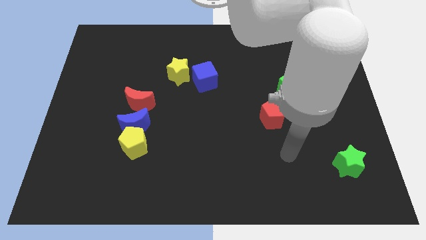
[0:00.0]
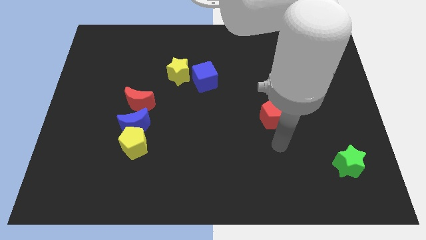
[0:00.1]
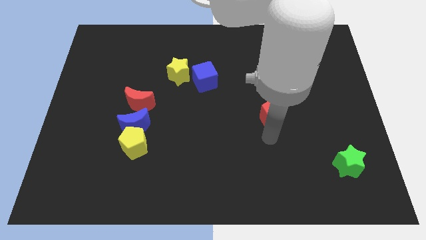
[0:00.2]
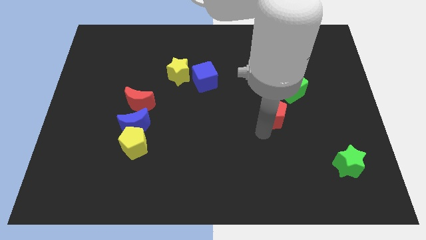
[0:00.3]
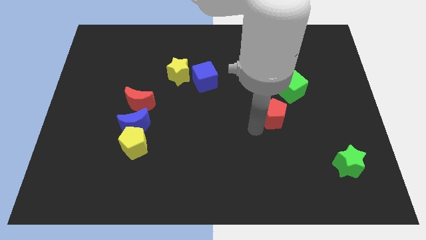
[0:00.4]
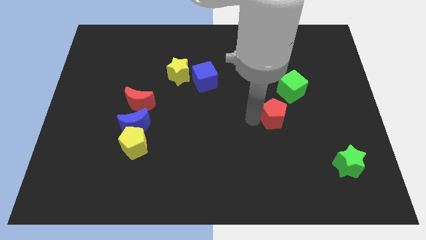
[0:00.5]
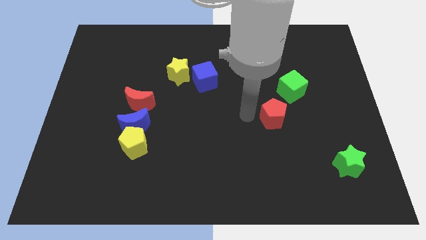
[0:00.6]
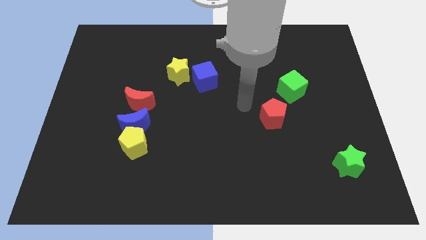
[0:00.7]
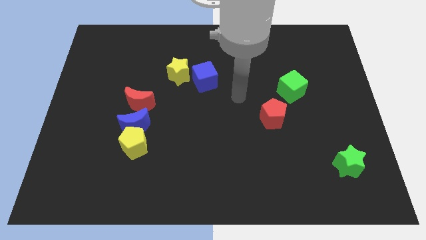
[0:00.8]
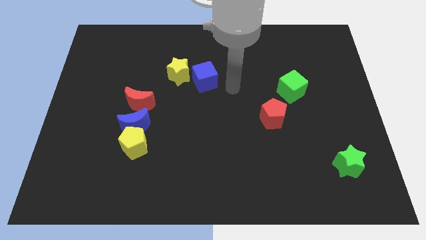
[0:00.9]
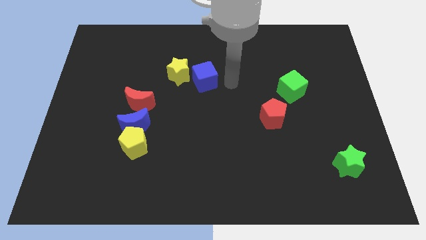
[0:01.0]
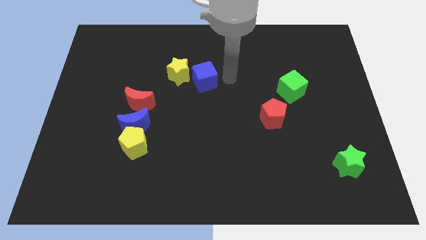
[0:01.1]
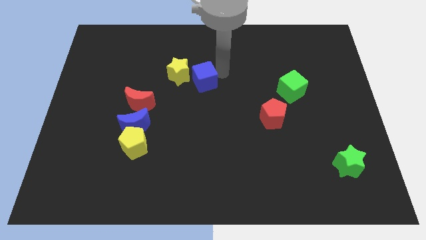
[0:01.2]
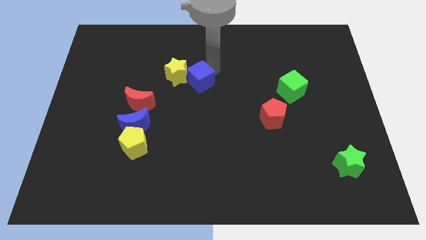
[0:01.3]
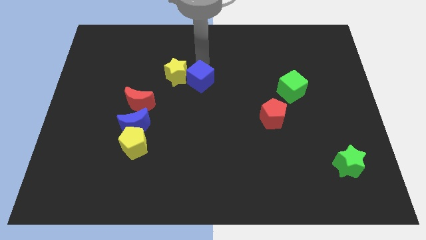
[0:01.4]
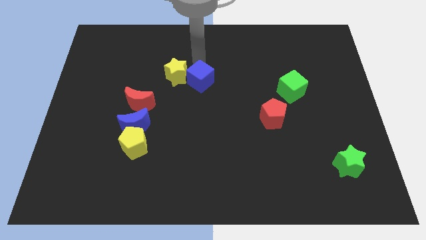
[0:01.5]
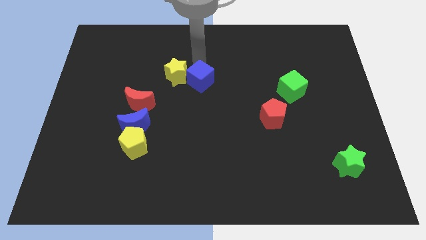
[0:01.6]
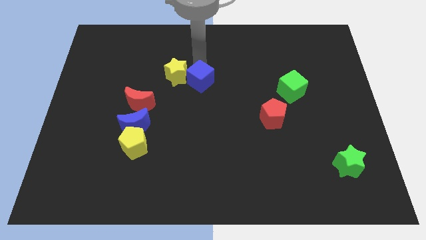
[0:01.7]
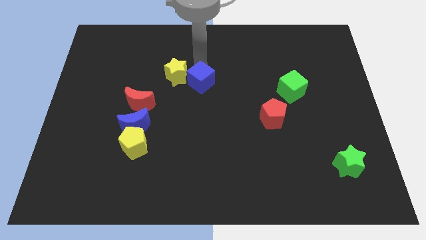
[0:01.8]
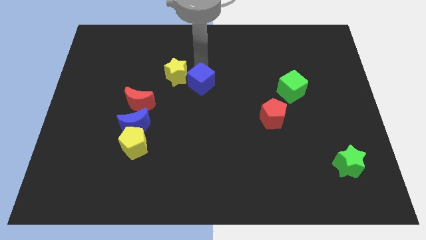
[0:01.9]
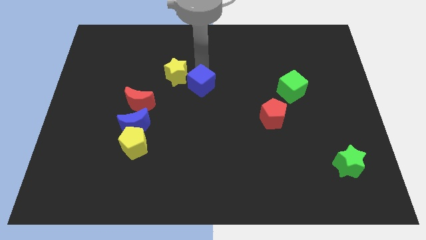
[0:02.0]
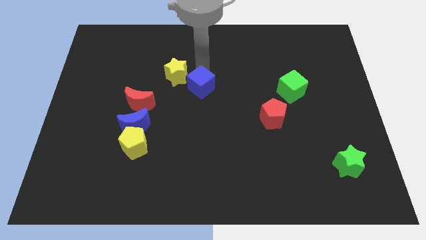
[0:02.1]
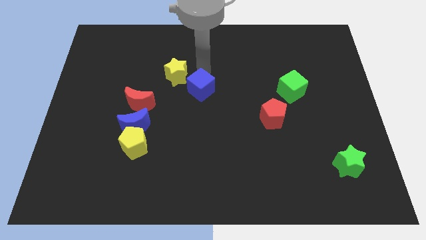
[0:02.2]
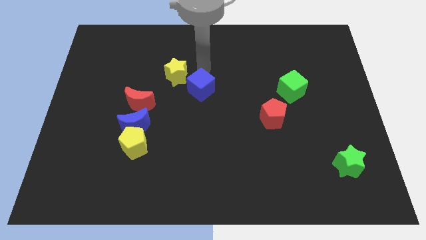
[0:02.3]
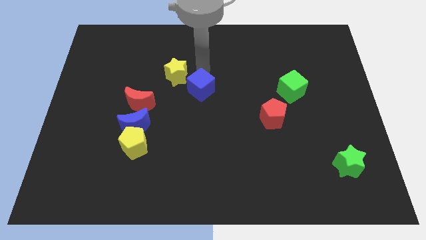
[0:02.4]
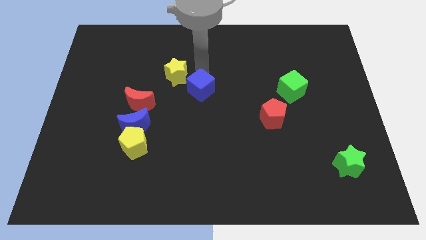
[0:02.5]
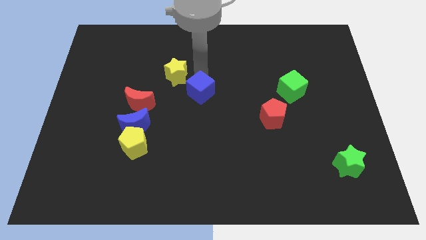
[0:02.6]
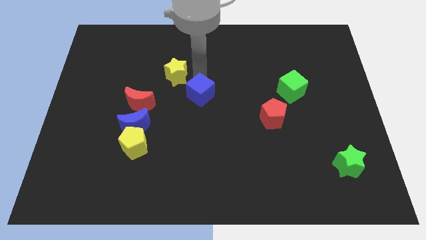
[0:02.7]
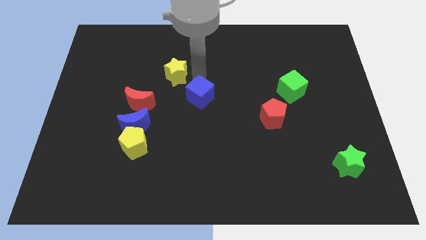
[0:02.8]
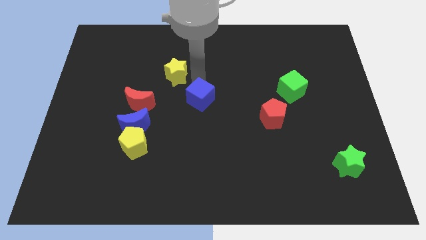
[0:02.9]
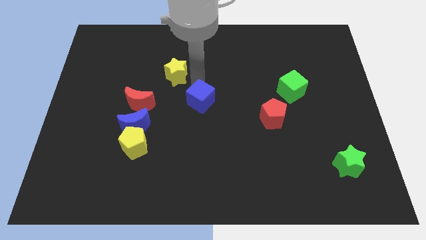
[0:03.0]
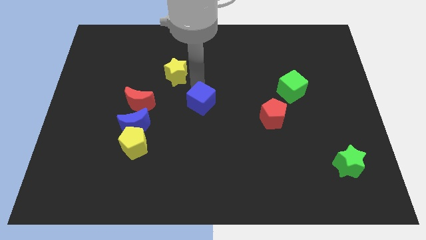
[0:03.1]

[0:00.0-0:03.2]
push the blue cube downwards a bit

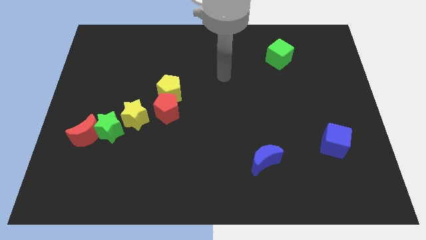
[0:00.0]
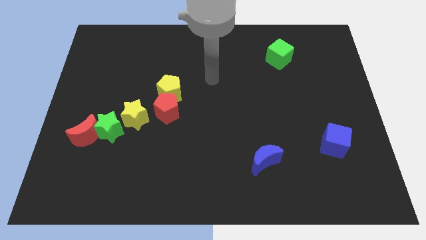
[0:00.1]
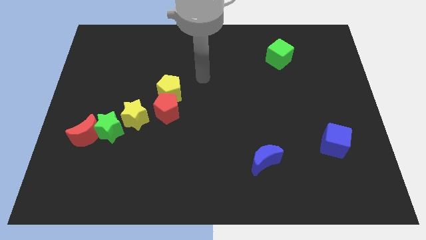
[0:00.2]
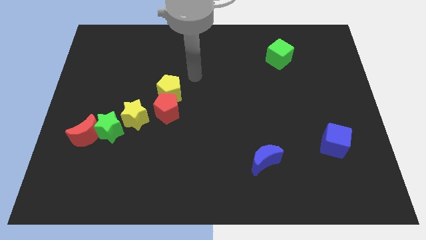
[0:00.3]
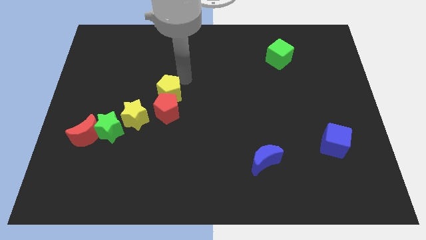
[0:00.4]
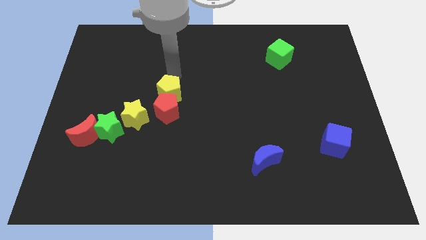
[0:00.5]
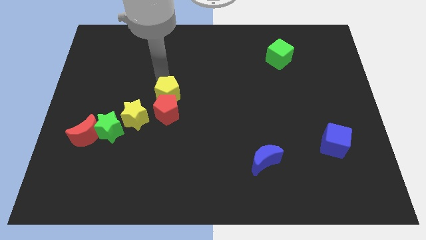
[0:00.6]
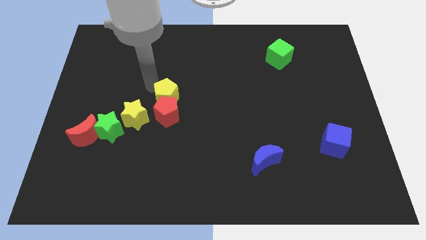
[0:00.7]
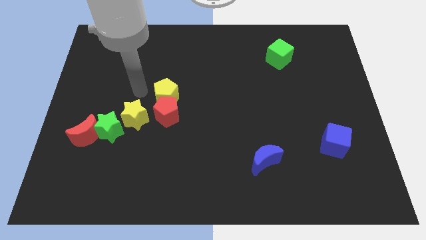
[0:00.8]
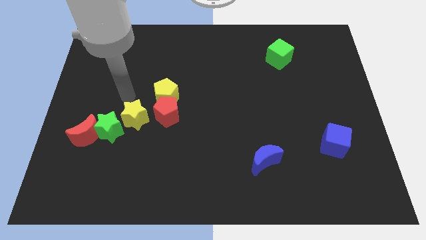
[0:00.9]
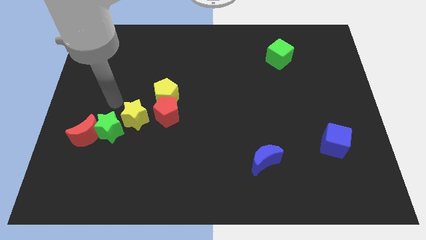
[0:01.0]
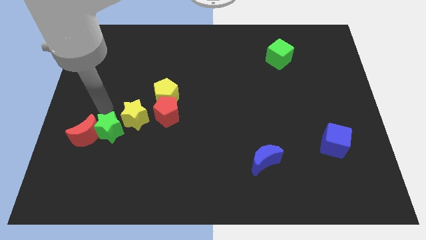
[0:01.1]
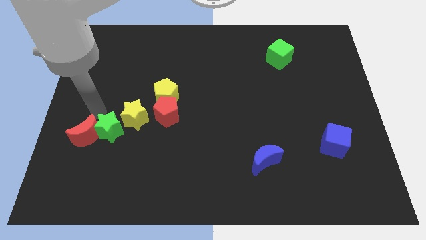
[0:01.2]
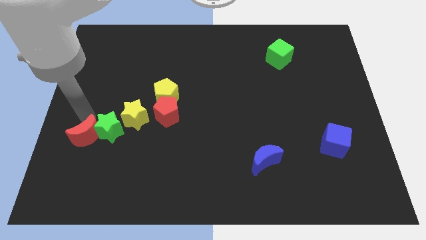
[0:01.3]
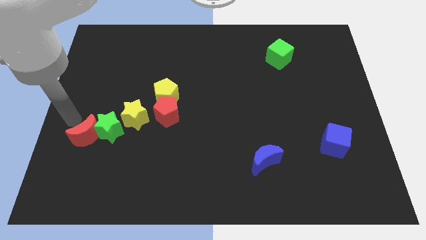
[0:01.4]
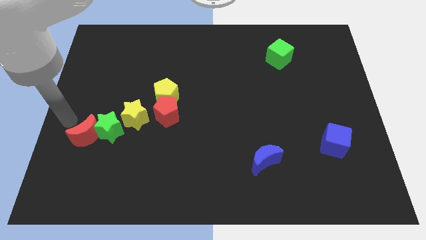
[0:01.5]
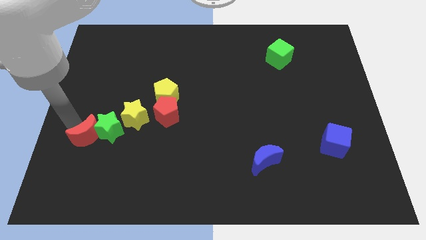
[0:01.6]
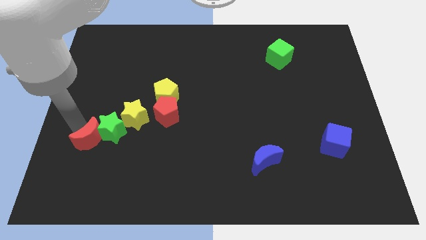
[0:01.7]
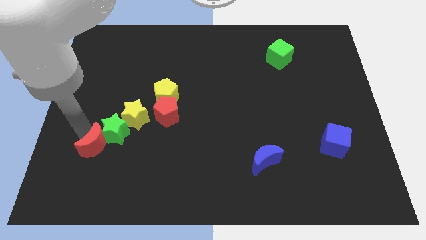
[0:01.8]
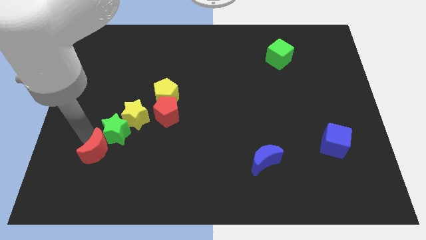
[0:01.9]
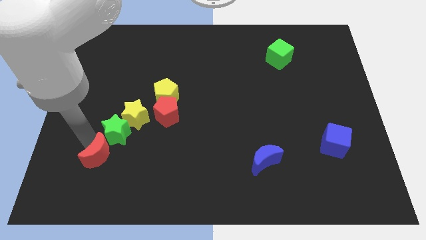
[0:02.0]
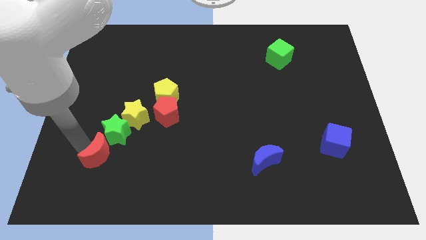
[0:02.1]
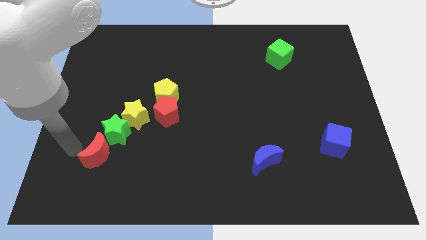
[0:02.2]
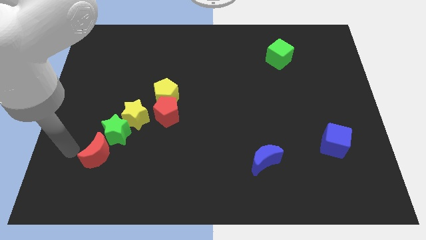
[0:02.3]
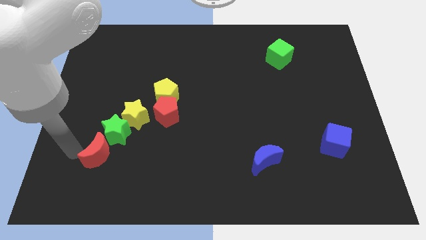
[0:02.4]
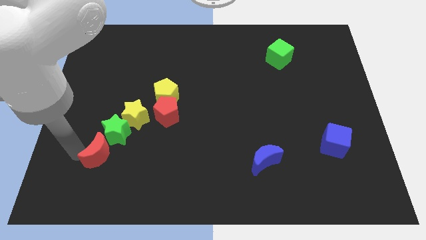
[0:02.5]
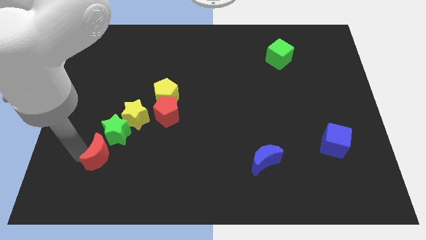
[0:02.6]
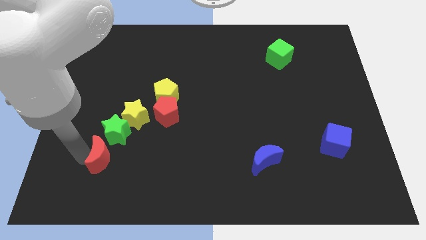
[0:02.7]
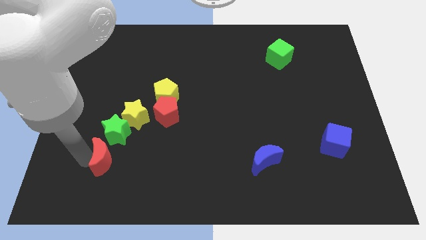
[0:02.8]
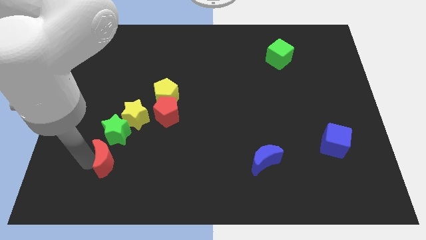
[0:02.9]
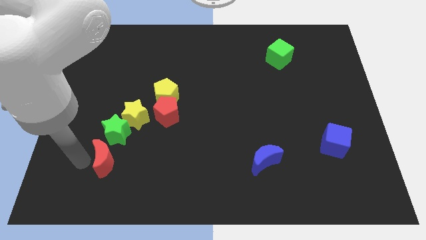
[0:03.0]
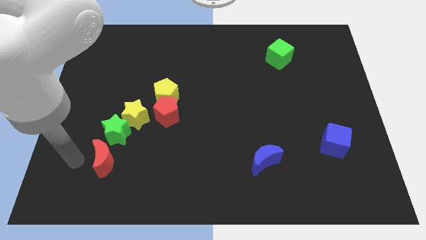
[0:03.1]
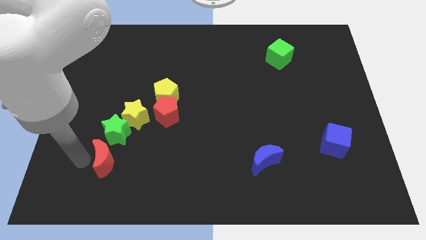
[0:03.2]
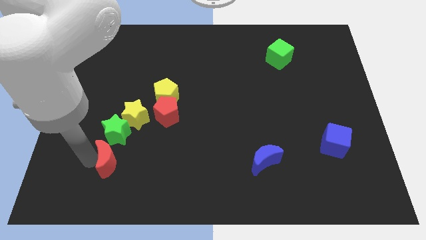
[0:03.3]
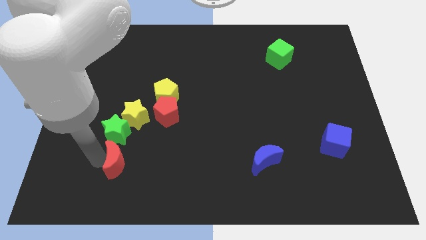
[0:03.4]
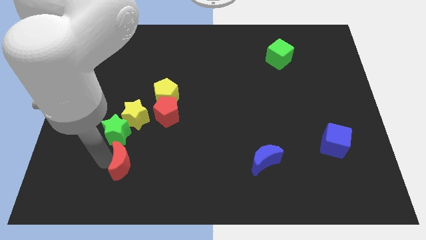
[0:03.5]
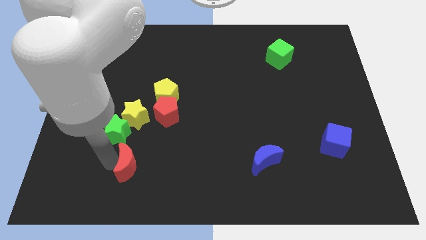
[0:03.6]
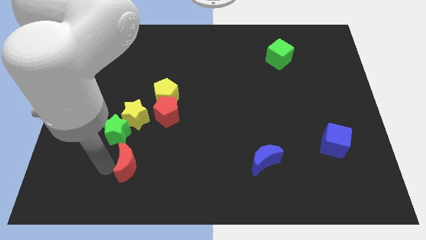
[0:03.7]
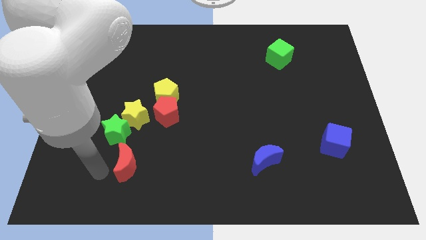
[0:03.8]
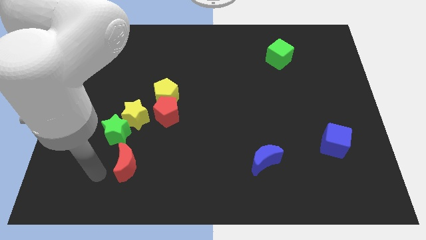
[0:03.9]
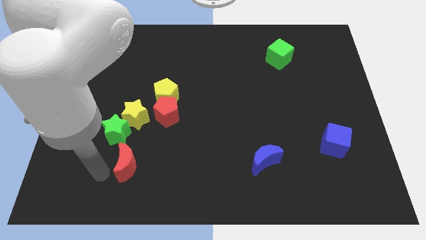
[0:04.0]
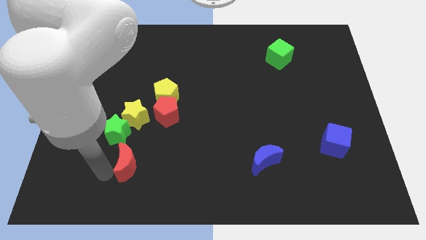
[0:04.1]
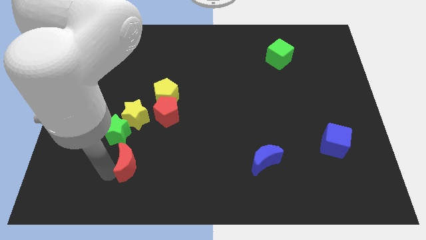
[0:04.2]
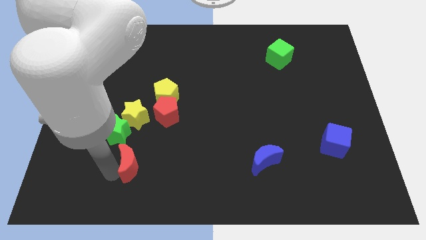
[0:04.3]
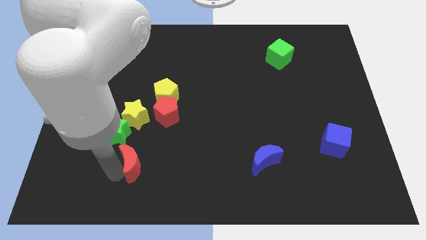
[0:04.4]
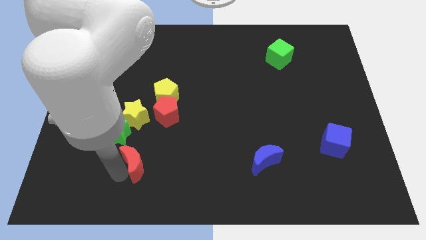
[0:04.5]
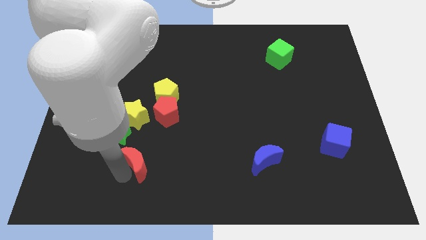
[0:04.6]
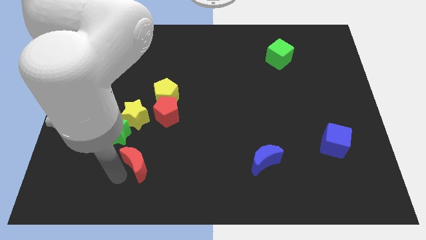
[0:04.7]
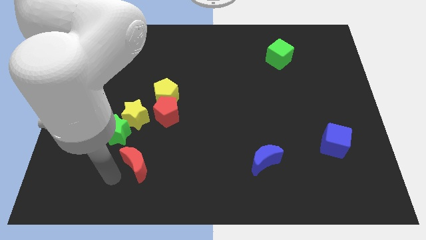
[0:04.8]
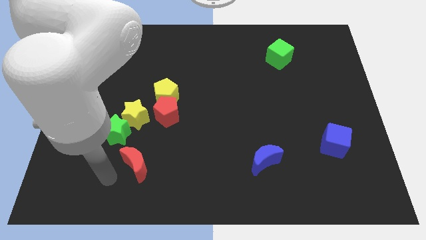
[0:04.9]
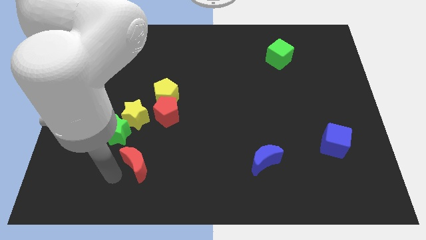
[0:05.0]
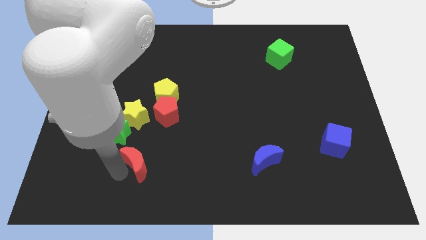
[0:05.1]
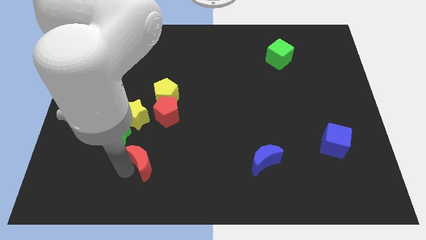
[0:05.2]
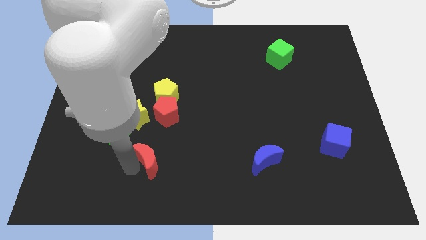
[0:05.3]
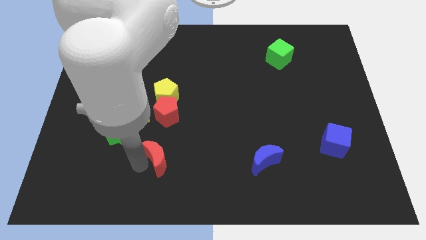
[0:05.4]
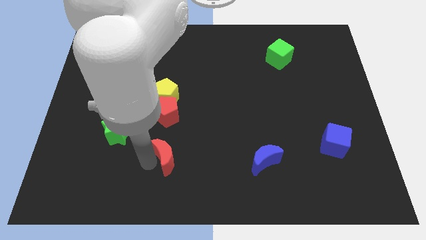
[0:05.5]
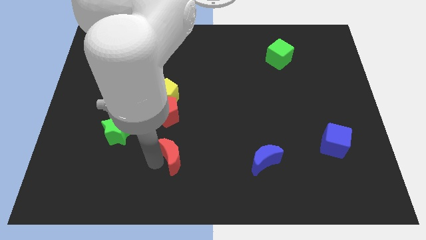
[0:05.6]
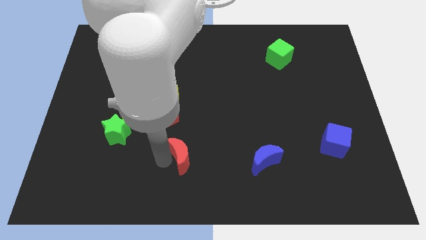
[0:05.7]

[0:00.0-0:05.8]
slide the red moon right
